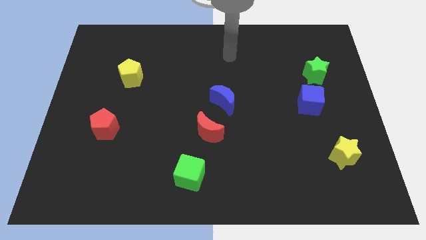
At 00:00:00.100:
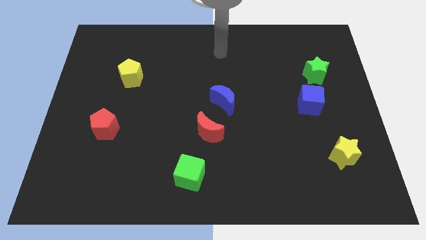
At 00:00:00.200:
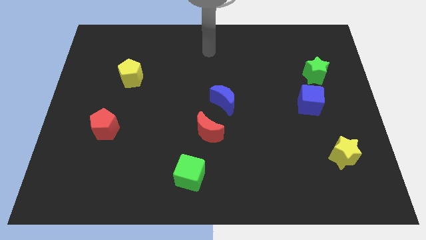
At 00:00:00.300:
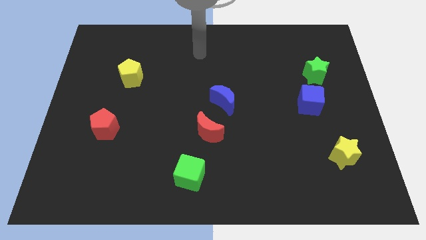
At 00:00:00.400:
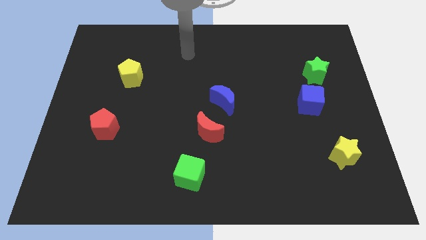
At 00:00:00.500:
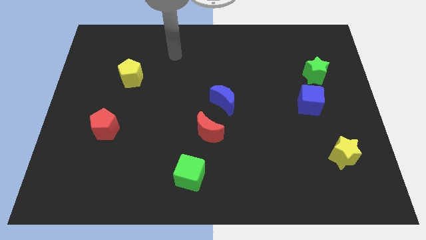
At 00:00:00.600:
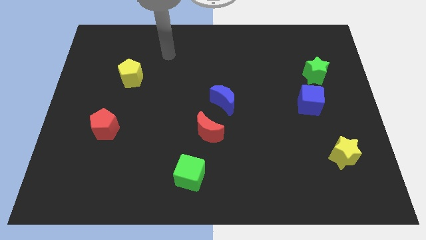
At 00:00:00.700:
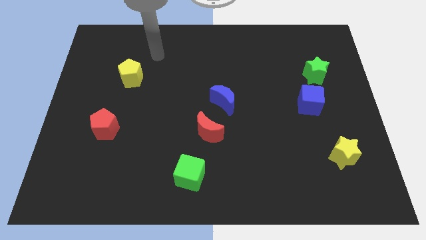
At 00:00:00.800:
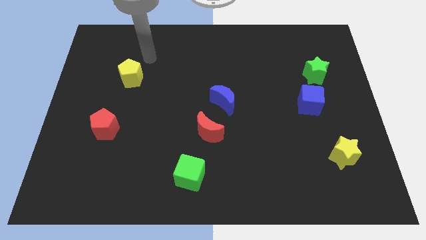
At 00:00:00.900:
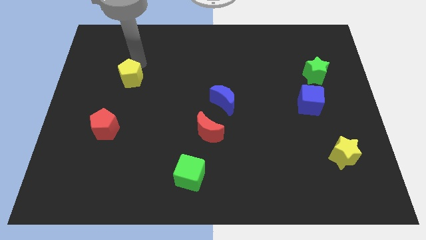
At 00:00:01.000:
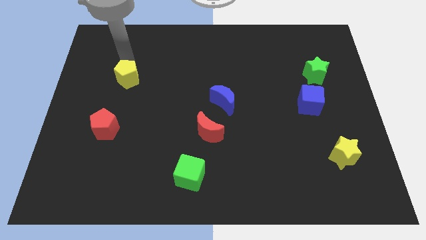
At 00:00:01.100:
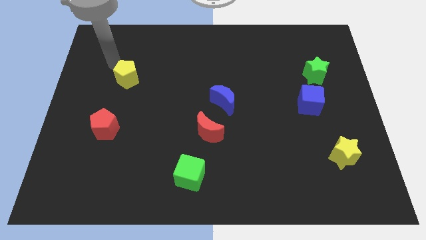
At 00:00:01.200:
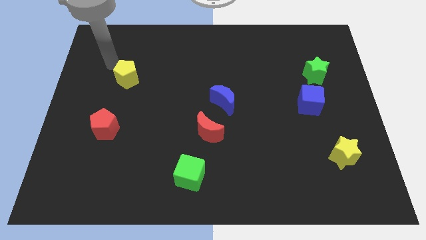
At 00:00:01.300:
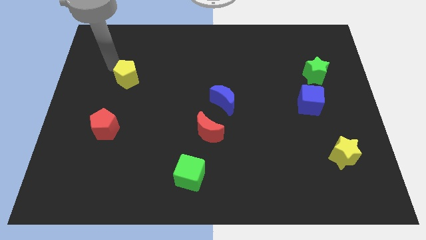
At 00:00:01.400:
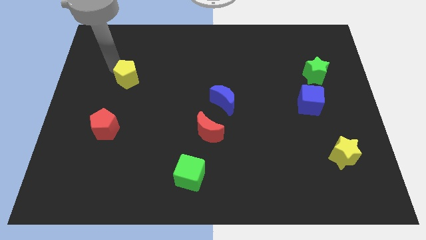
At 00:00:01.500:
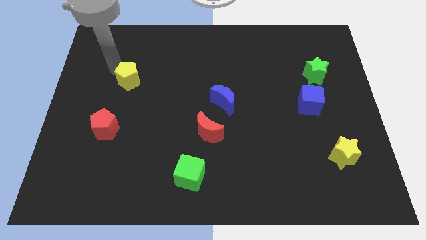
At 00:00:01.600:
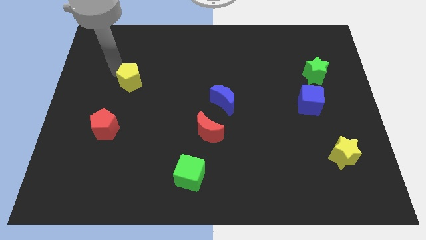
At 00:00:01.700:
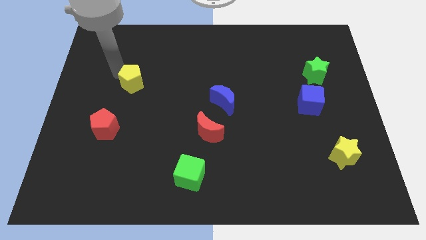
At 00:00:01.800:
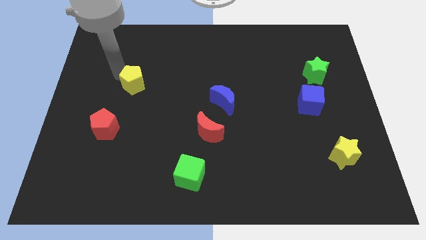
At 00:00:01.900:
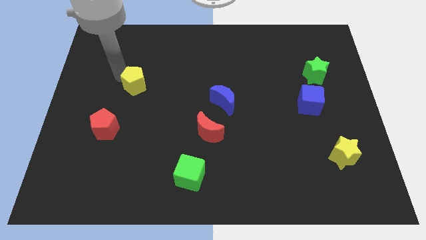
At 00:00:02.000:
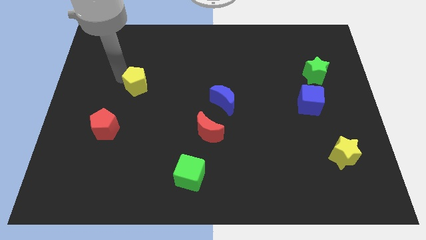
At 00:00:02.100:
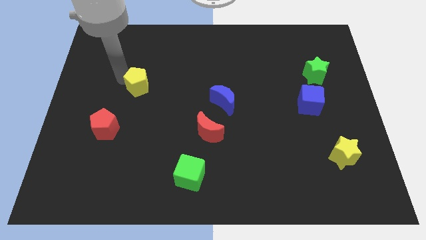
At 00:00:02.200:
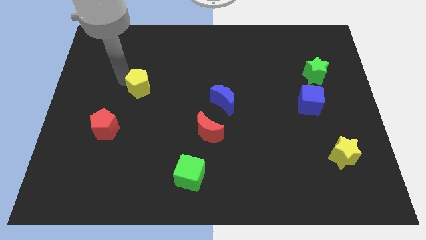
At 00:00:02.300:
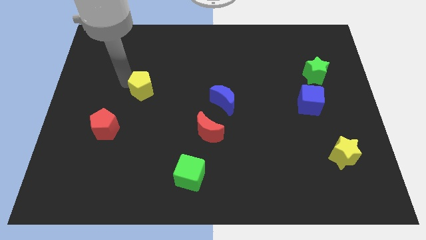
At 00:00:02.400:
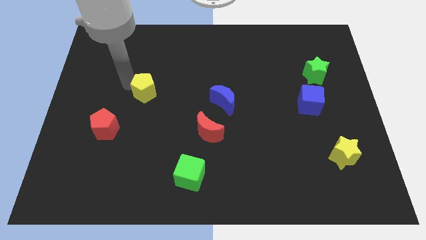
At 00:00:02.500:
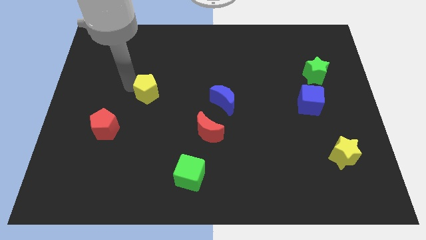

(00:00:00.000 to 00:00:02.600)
slide the yellow pentagon slightly down and right diagonally

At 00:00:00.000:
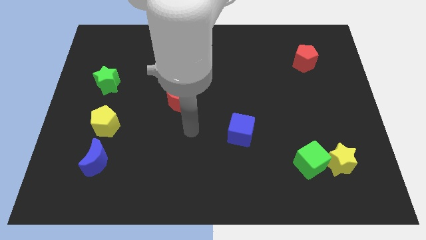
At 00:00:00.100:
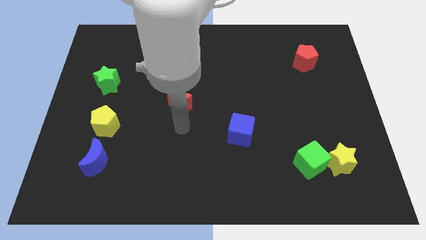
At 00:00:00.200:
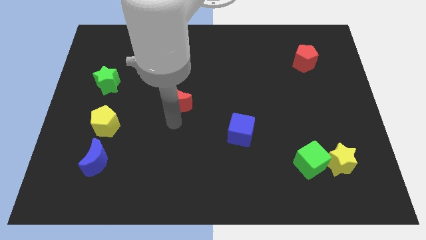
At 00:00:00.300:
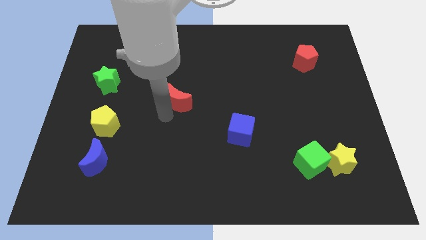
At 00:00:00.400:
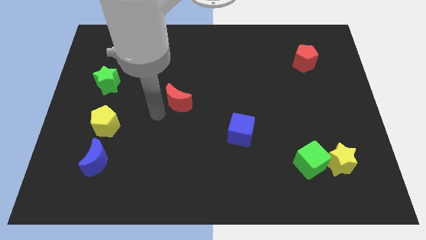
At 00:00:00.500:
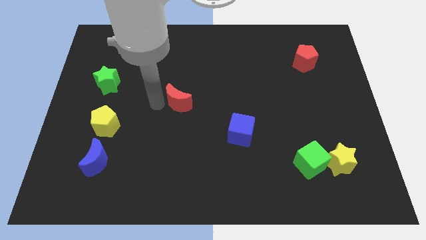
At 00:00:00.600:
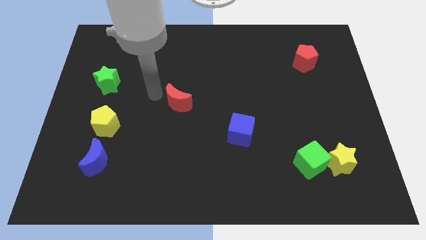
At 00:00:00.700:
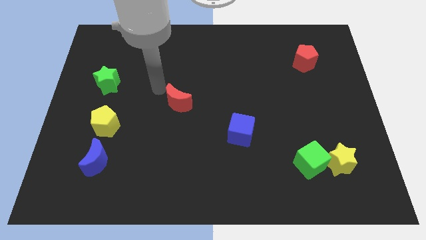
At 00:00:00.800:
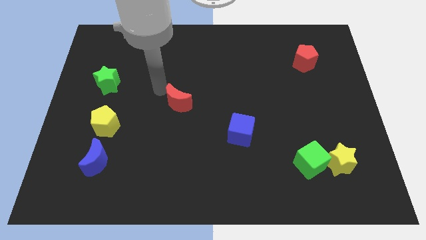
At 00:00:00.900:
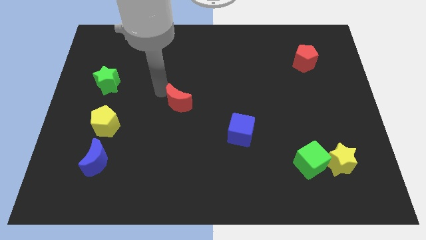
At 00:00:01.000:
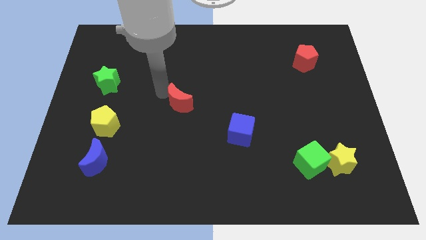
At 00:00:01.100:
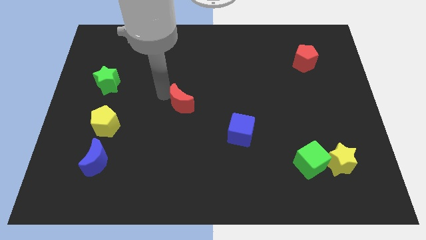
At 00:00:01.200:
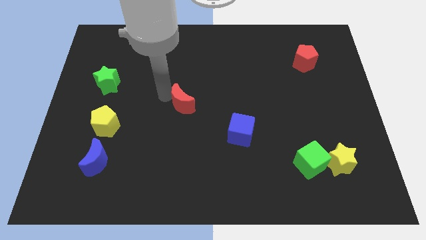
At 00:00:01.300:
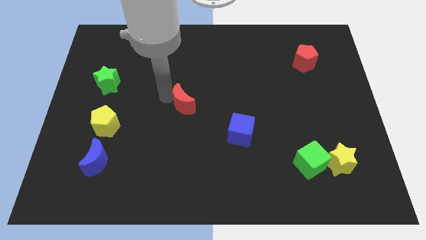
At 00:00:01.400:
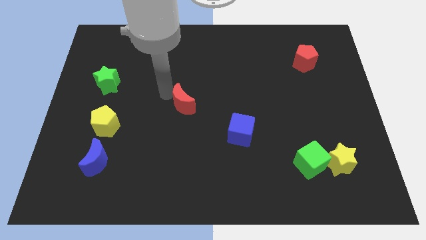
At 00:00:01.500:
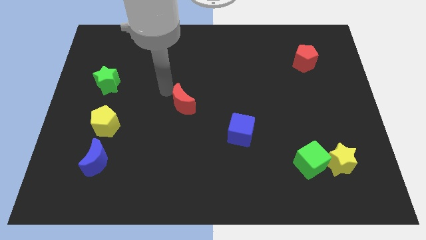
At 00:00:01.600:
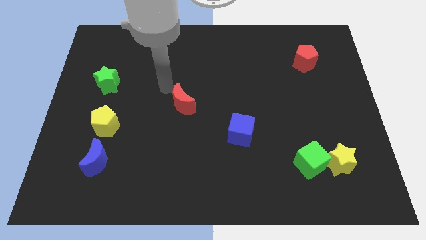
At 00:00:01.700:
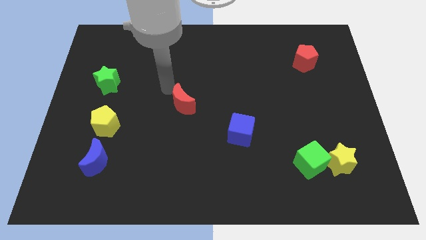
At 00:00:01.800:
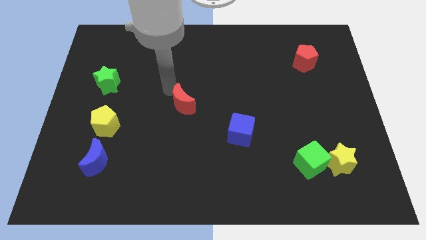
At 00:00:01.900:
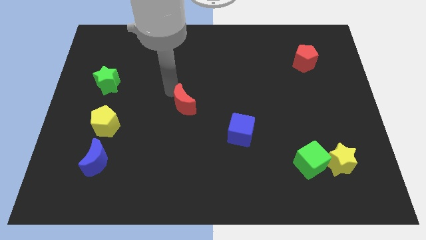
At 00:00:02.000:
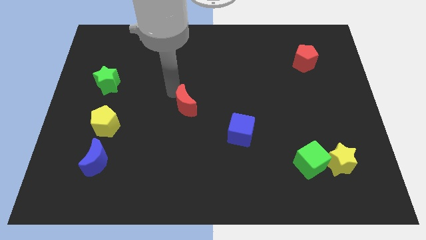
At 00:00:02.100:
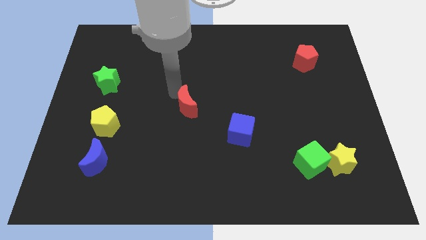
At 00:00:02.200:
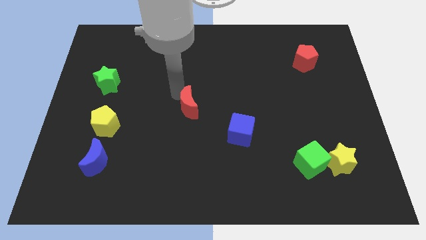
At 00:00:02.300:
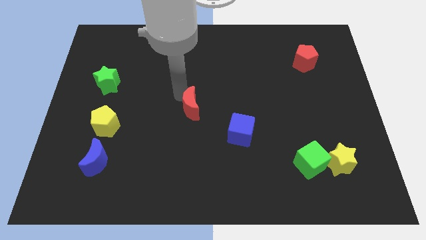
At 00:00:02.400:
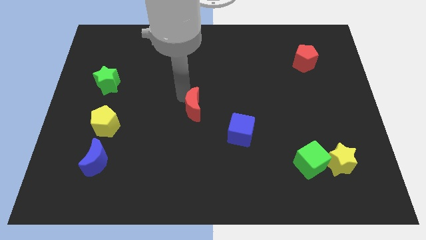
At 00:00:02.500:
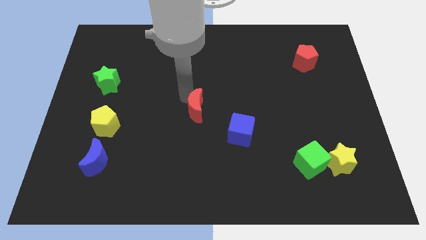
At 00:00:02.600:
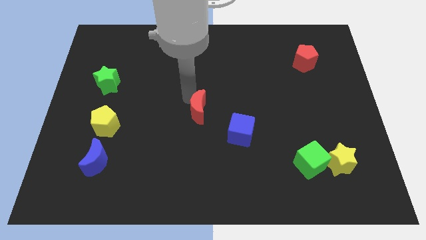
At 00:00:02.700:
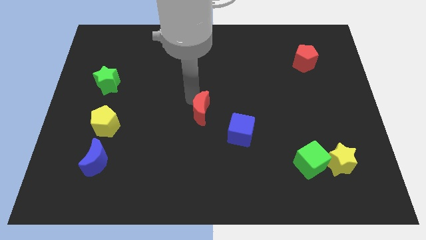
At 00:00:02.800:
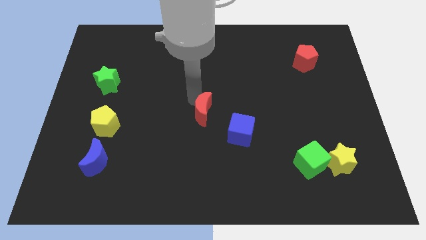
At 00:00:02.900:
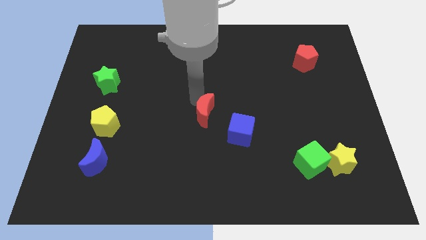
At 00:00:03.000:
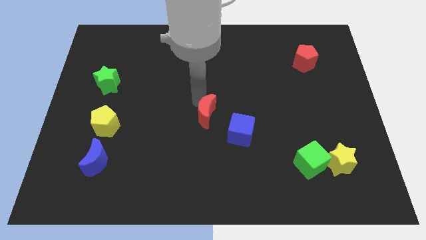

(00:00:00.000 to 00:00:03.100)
move the red moon down and right diagonally a bit

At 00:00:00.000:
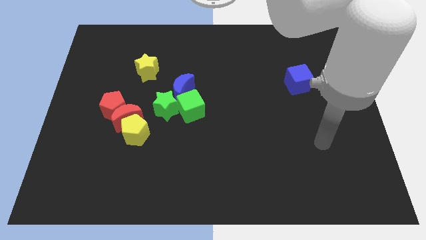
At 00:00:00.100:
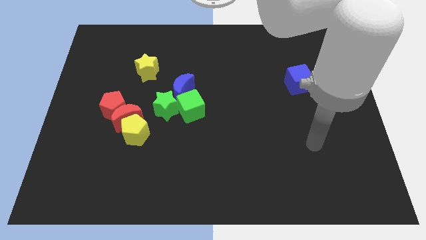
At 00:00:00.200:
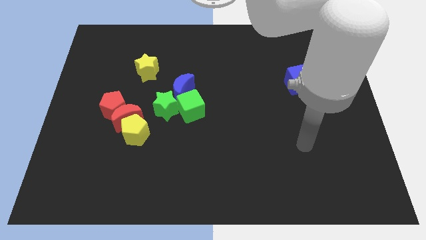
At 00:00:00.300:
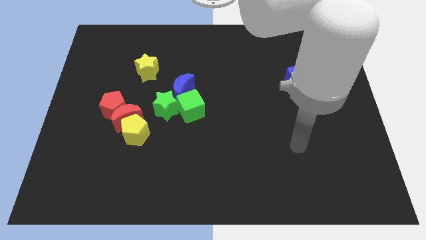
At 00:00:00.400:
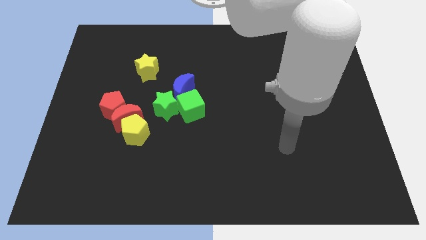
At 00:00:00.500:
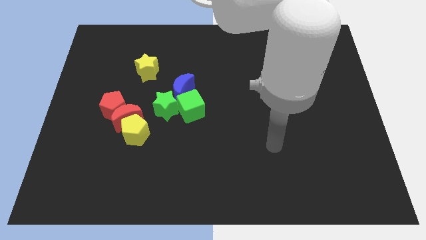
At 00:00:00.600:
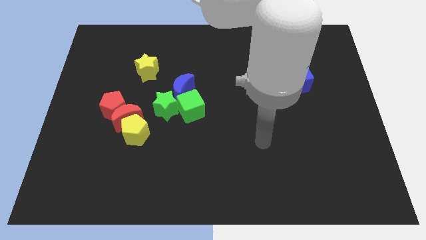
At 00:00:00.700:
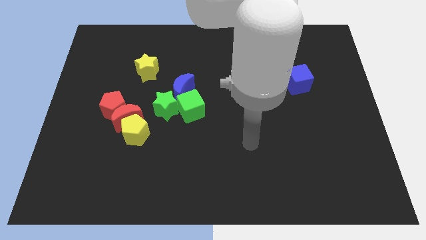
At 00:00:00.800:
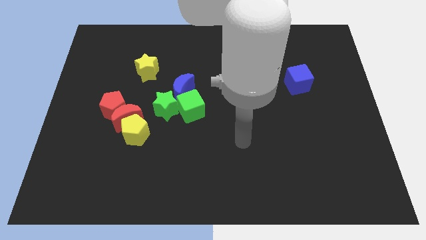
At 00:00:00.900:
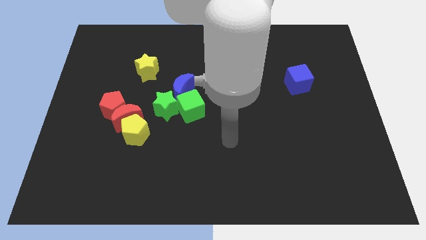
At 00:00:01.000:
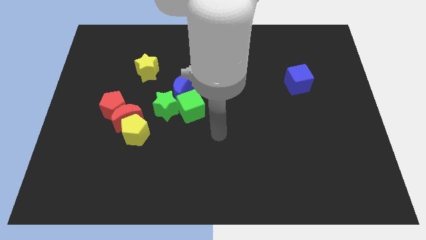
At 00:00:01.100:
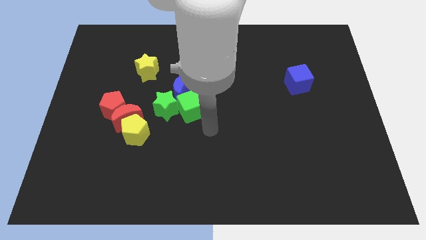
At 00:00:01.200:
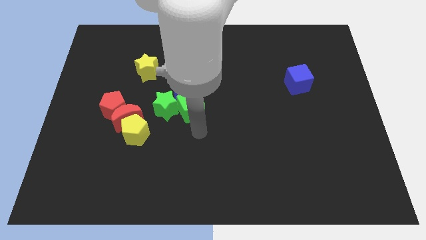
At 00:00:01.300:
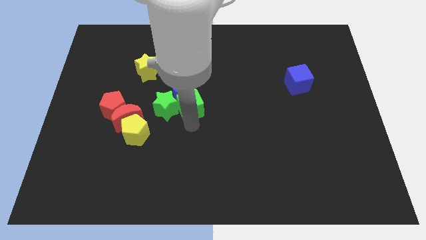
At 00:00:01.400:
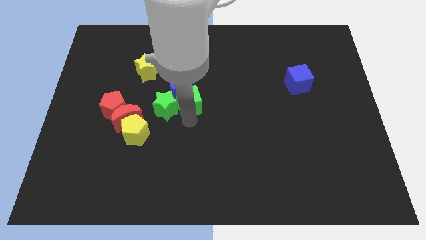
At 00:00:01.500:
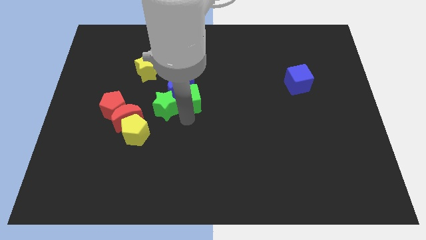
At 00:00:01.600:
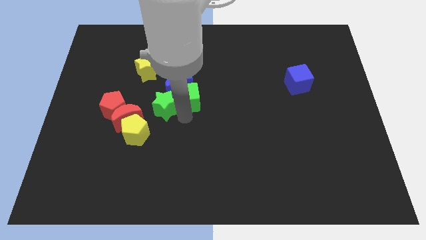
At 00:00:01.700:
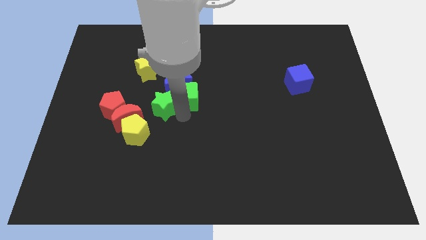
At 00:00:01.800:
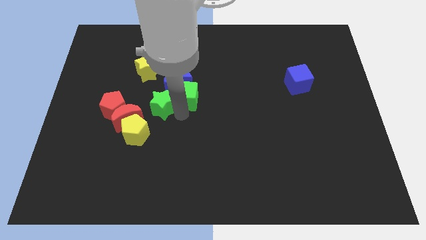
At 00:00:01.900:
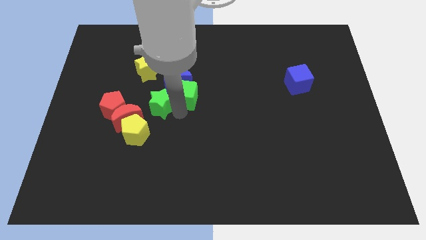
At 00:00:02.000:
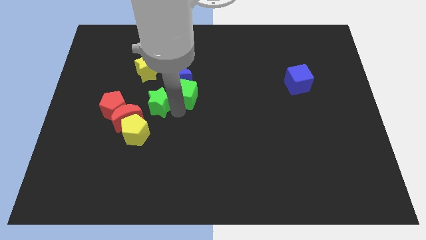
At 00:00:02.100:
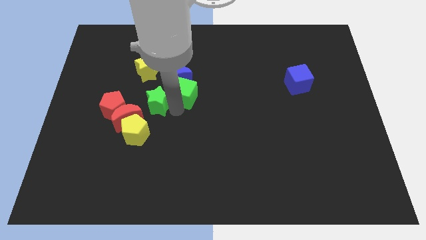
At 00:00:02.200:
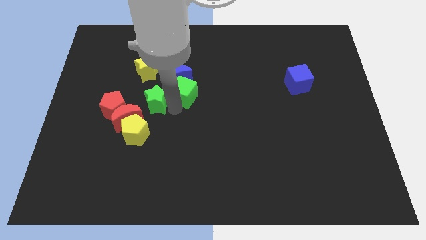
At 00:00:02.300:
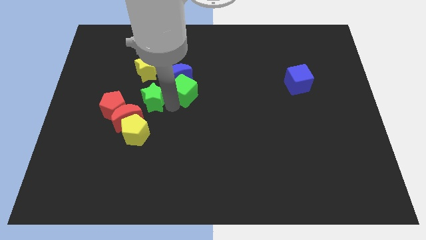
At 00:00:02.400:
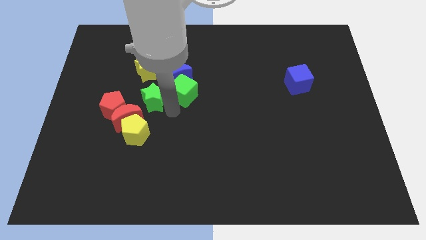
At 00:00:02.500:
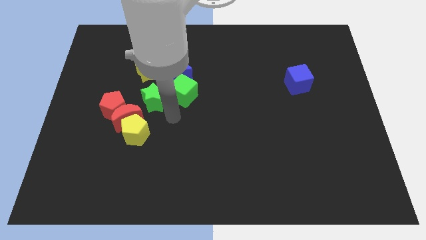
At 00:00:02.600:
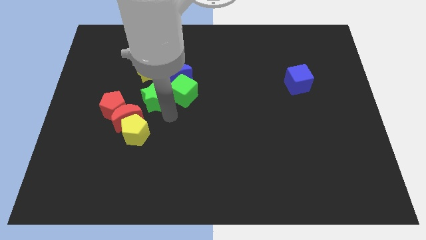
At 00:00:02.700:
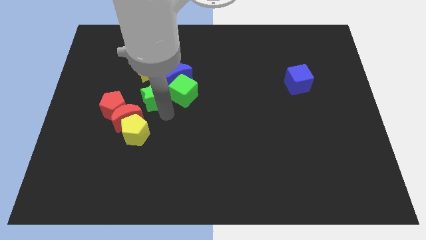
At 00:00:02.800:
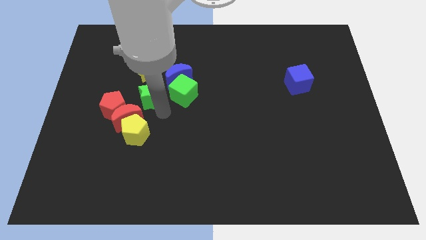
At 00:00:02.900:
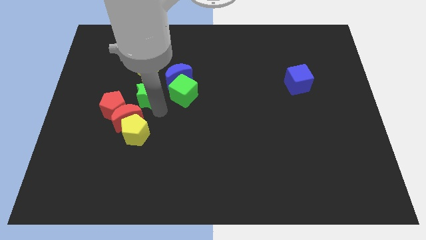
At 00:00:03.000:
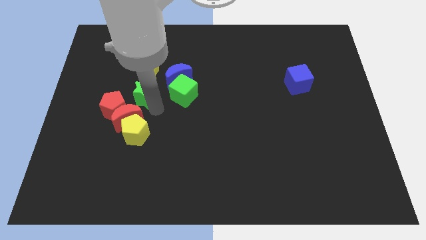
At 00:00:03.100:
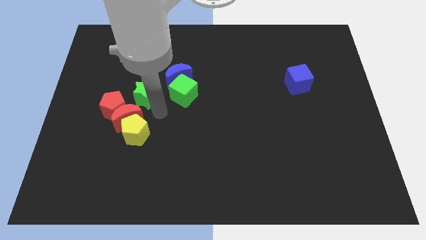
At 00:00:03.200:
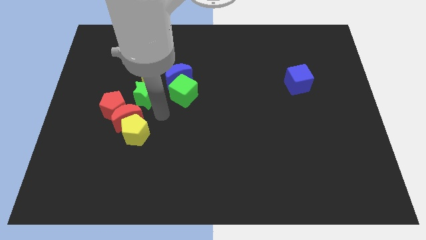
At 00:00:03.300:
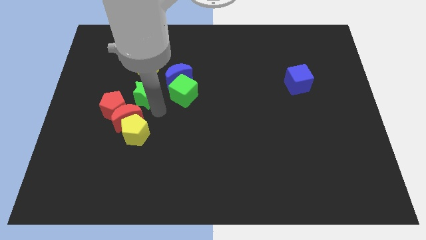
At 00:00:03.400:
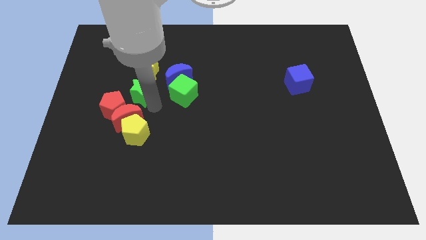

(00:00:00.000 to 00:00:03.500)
move the green star a bit up and left diagonally
